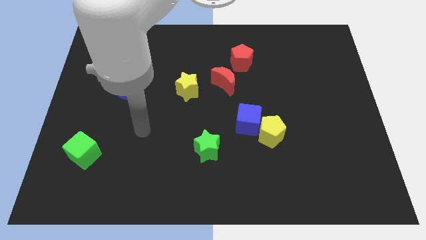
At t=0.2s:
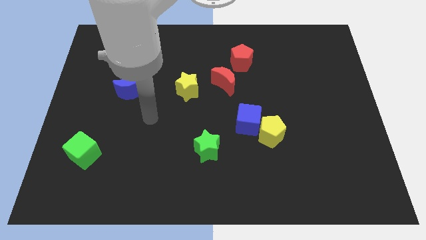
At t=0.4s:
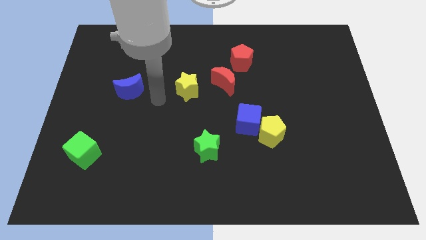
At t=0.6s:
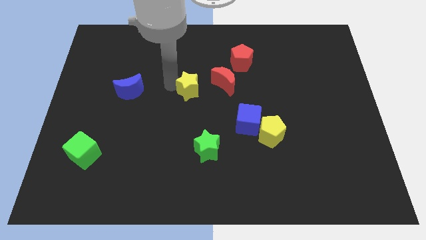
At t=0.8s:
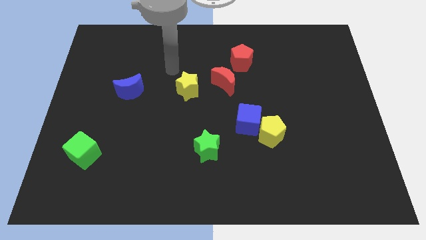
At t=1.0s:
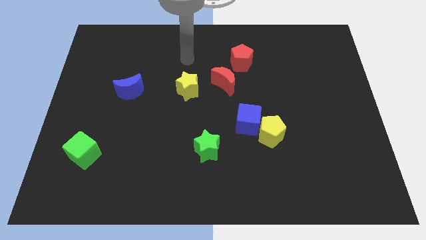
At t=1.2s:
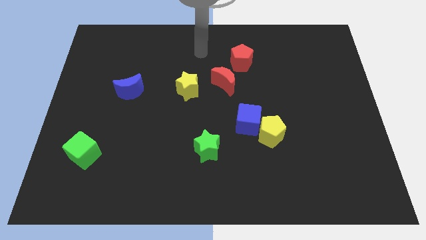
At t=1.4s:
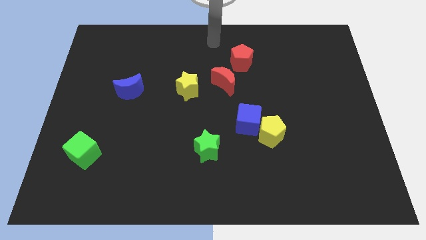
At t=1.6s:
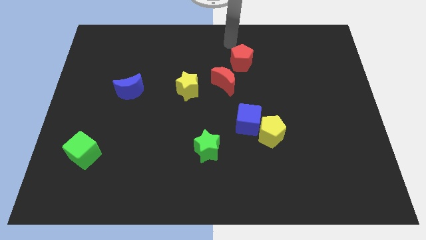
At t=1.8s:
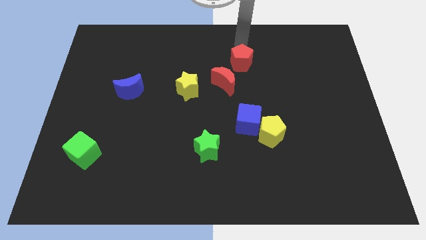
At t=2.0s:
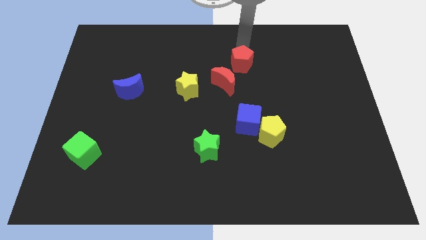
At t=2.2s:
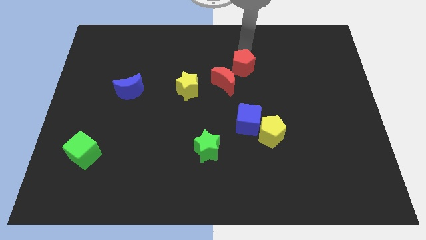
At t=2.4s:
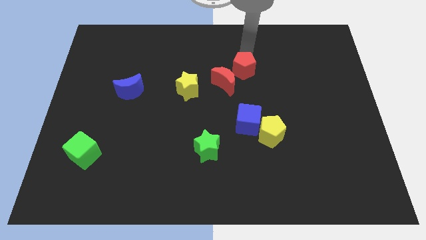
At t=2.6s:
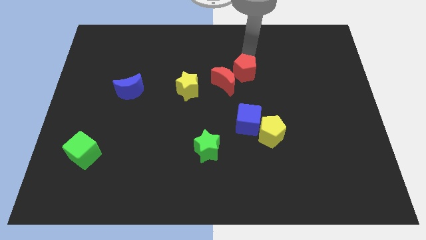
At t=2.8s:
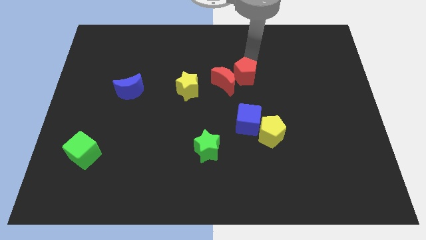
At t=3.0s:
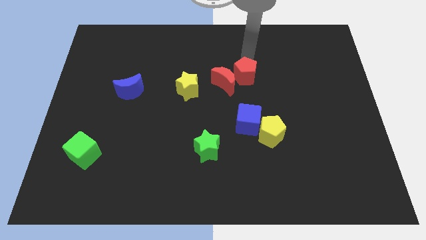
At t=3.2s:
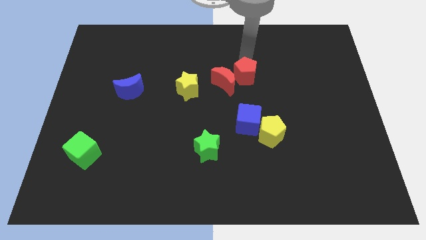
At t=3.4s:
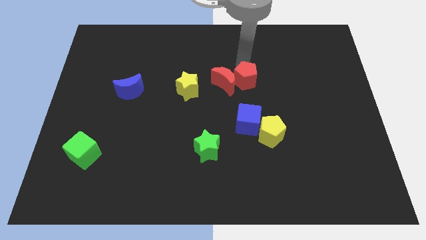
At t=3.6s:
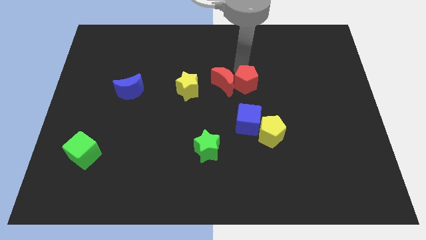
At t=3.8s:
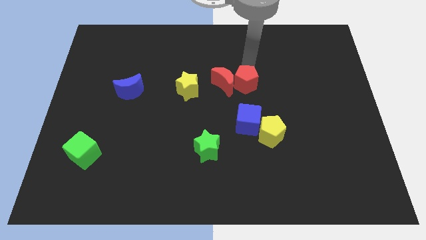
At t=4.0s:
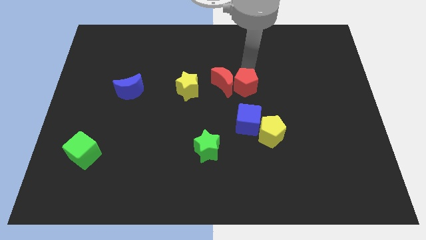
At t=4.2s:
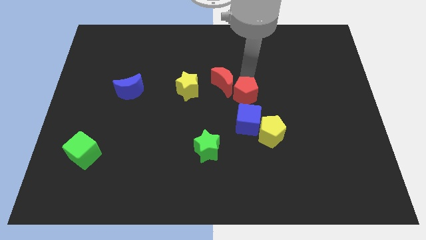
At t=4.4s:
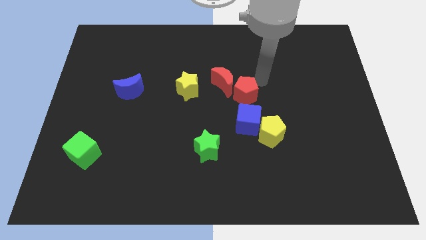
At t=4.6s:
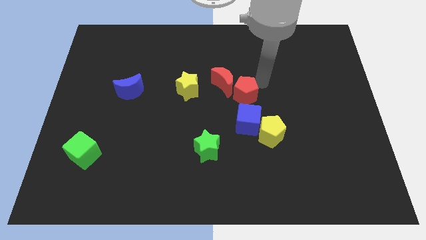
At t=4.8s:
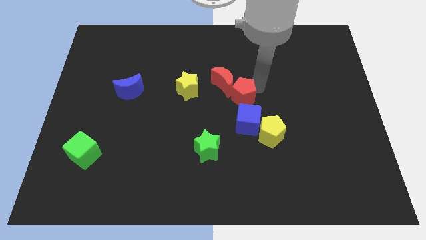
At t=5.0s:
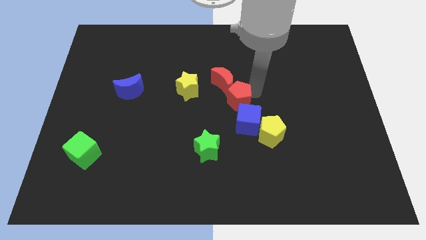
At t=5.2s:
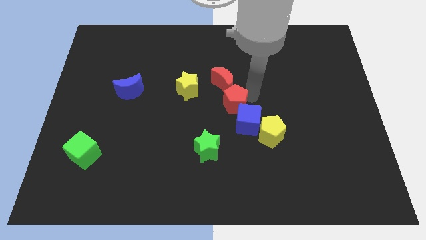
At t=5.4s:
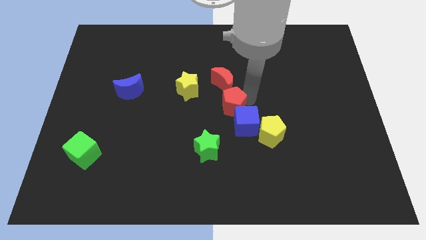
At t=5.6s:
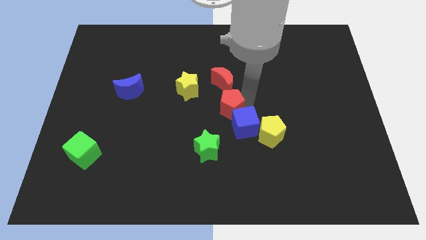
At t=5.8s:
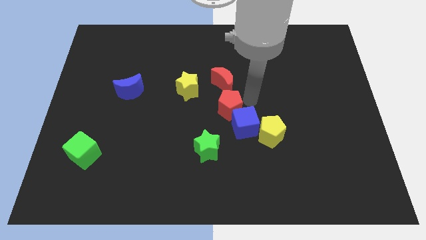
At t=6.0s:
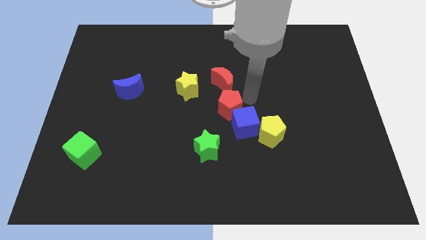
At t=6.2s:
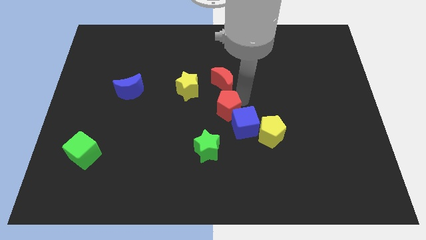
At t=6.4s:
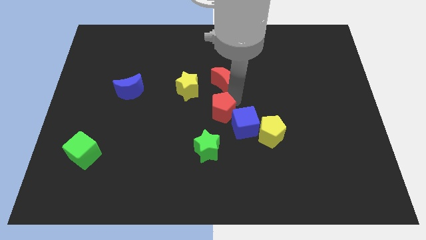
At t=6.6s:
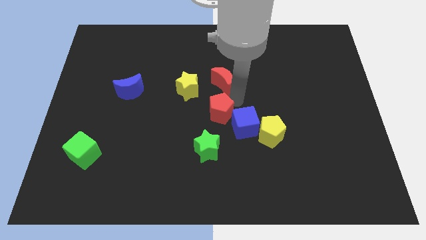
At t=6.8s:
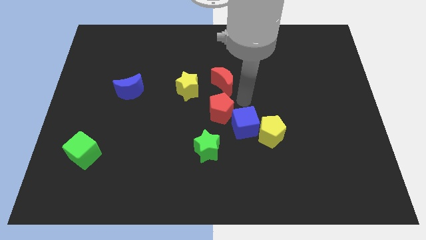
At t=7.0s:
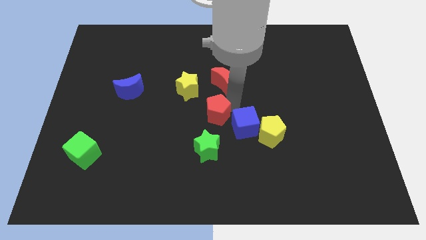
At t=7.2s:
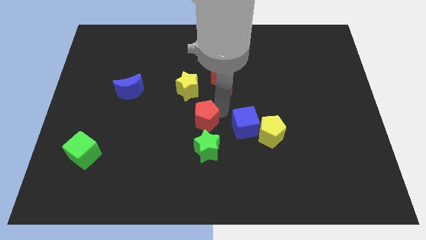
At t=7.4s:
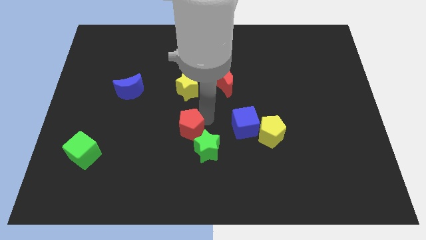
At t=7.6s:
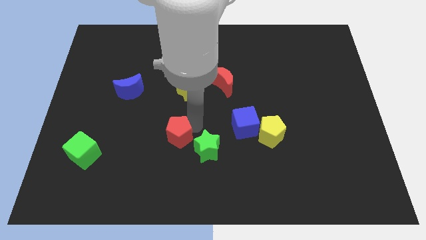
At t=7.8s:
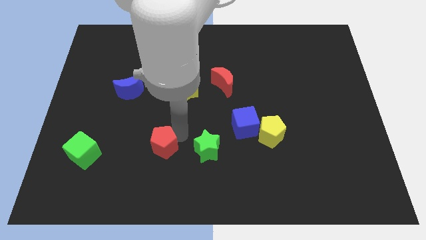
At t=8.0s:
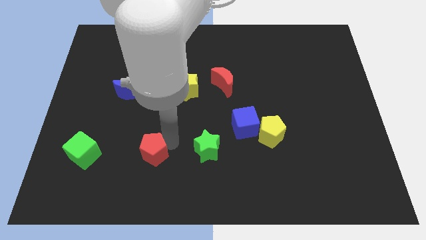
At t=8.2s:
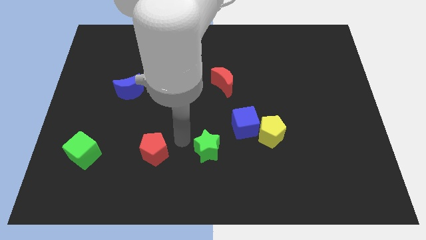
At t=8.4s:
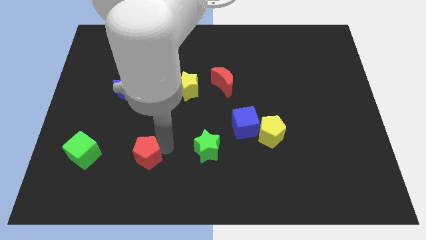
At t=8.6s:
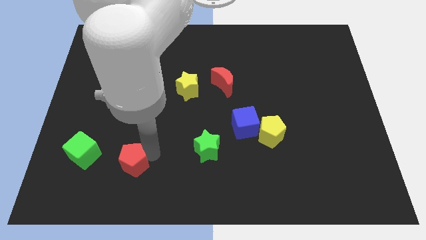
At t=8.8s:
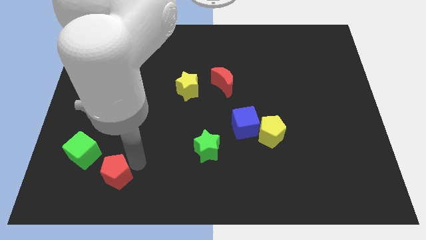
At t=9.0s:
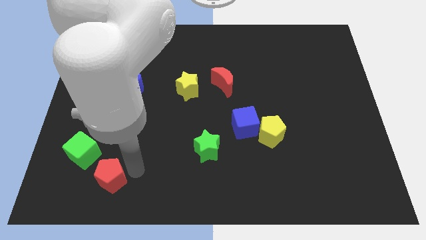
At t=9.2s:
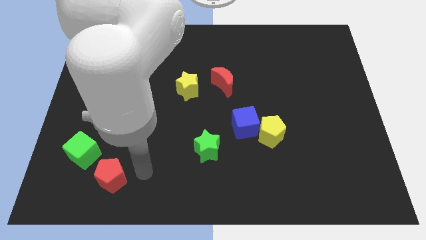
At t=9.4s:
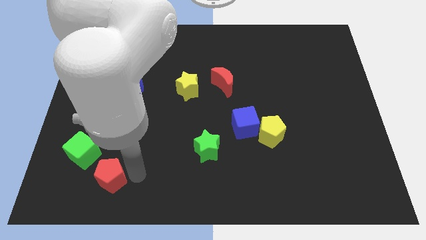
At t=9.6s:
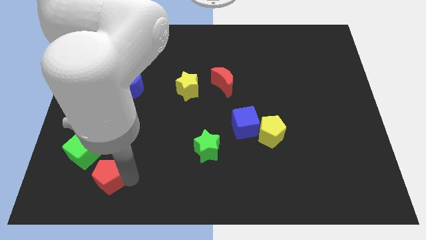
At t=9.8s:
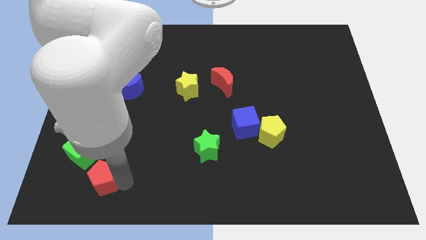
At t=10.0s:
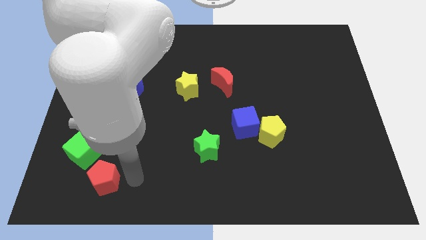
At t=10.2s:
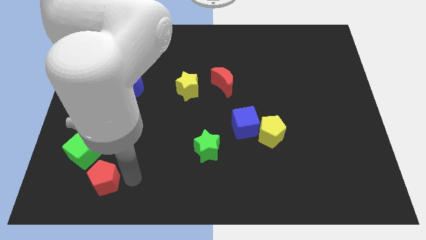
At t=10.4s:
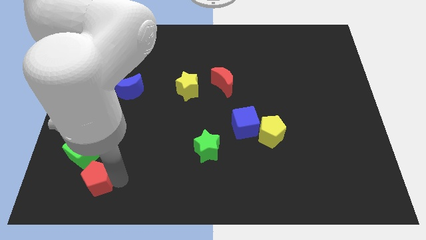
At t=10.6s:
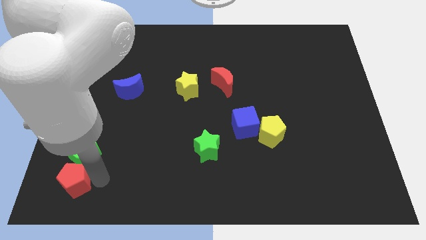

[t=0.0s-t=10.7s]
slide the red pentagon to the bottom left
